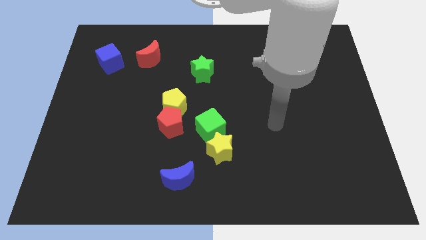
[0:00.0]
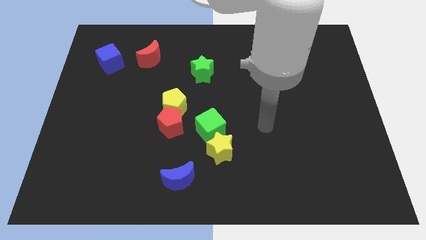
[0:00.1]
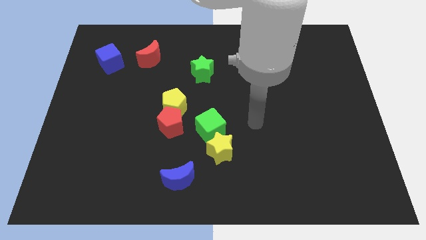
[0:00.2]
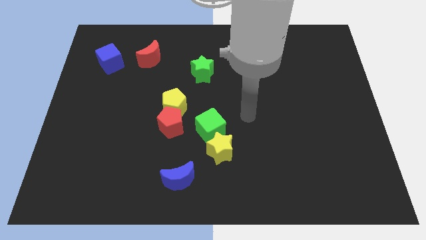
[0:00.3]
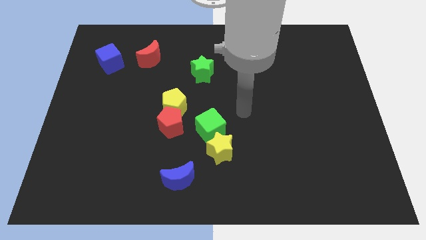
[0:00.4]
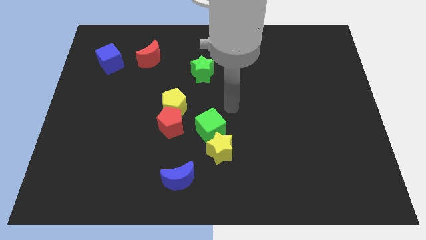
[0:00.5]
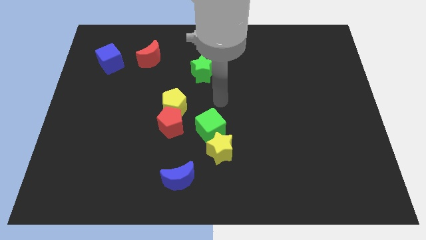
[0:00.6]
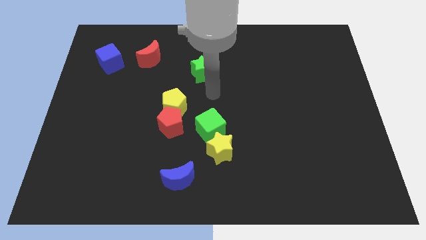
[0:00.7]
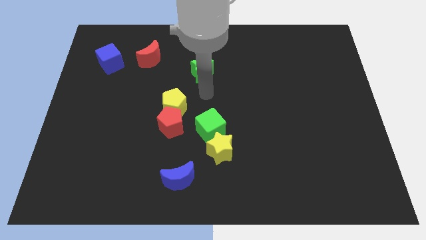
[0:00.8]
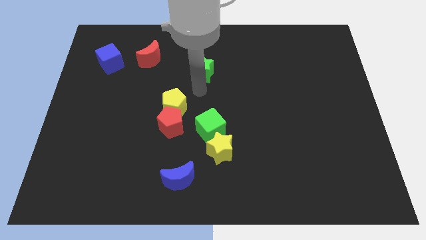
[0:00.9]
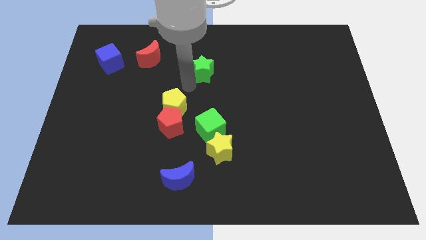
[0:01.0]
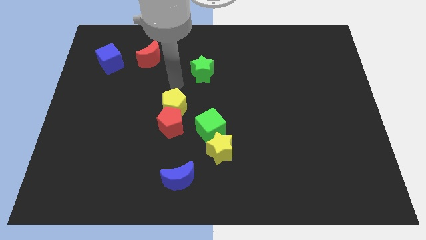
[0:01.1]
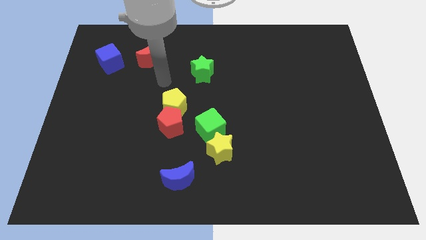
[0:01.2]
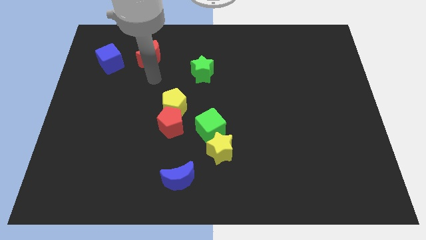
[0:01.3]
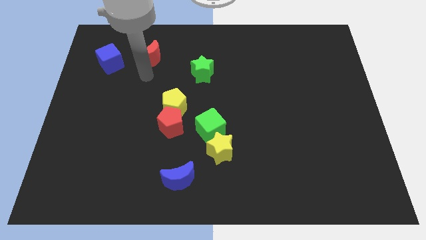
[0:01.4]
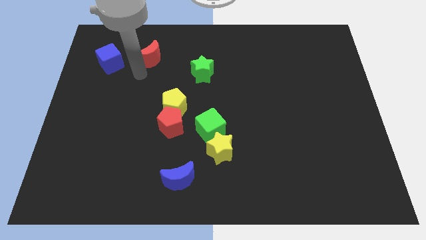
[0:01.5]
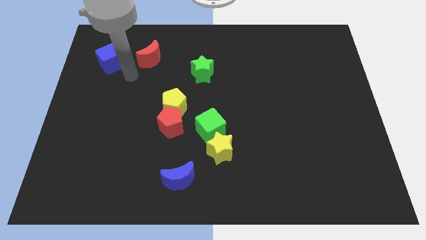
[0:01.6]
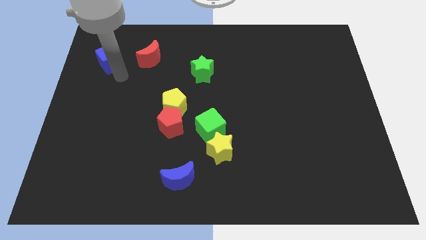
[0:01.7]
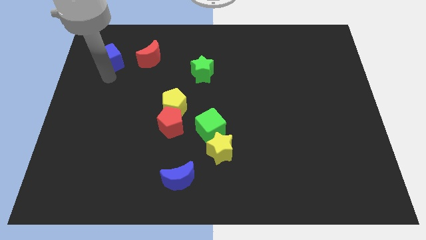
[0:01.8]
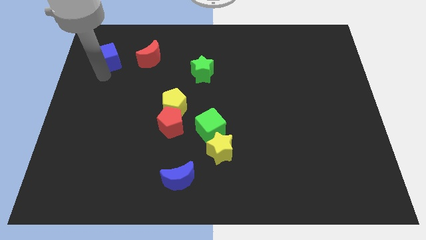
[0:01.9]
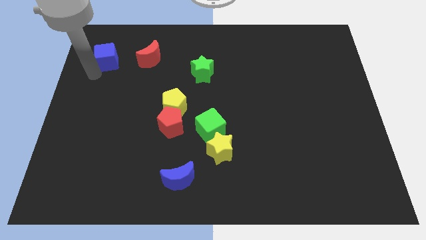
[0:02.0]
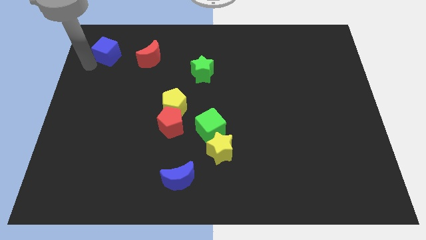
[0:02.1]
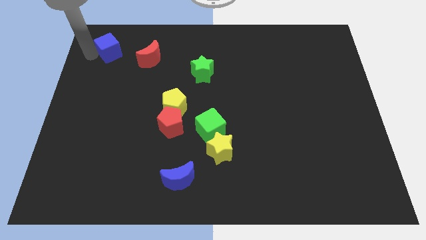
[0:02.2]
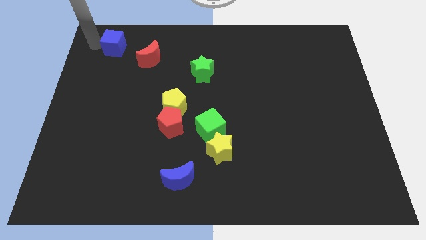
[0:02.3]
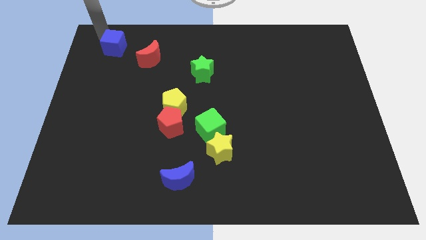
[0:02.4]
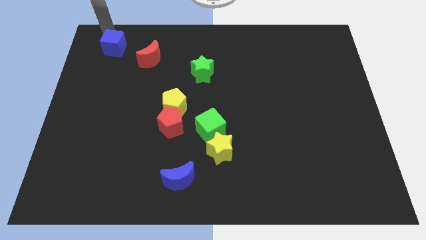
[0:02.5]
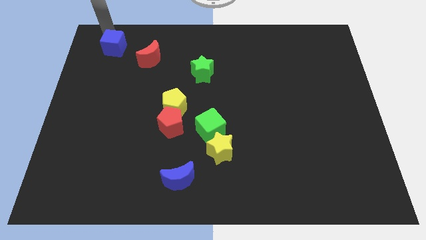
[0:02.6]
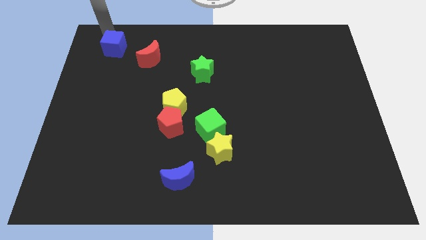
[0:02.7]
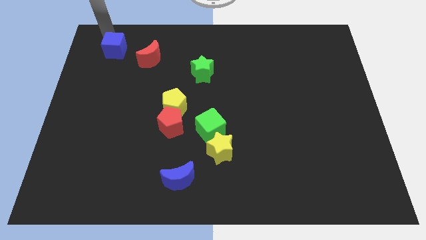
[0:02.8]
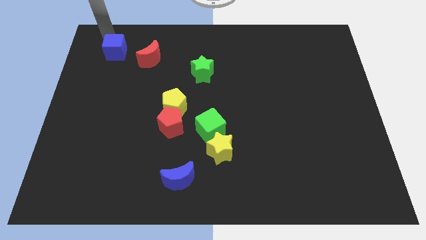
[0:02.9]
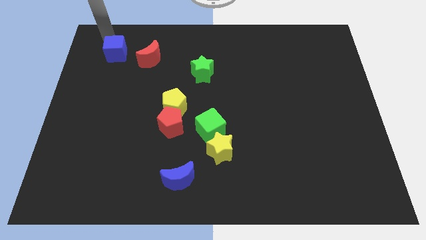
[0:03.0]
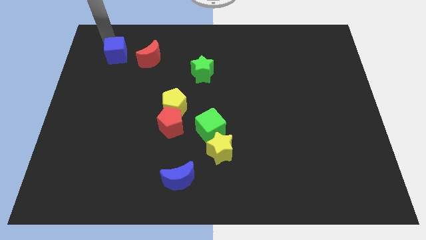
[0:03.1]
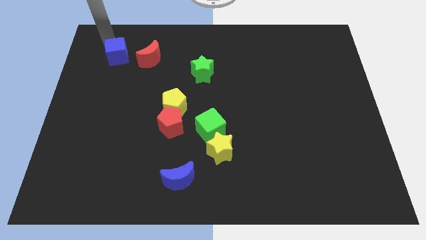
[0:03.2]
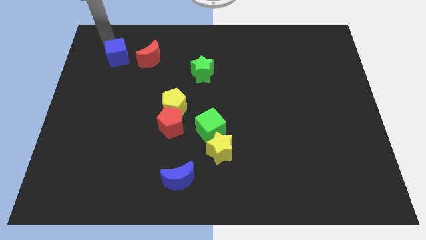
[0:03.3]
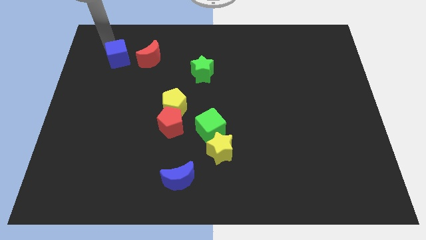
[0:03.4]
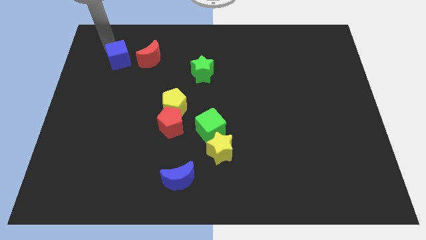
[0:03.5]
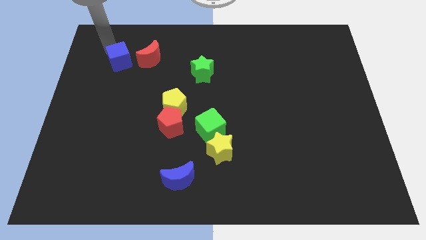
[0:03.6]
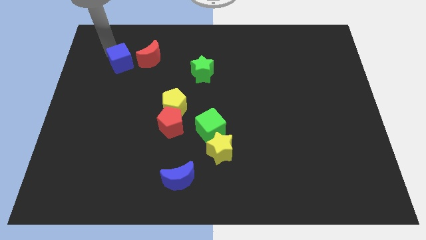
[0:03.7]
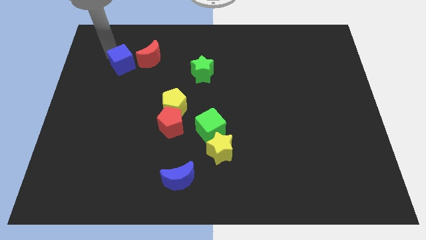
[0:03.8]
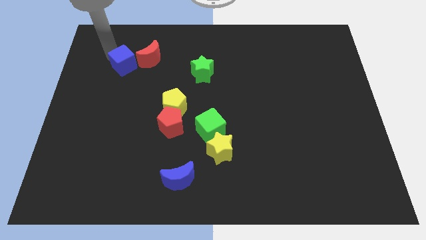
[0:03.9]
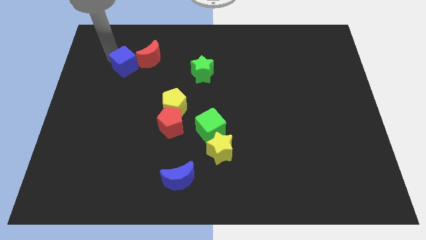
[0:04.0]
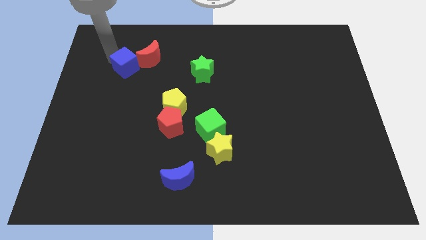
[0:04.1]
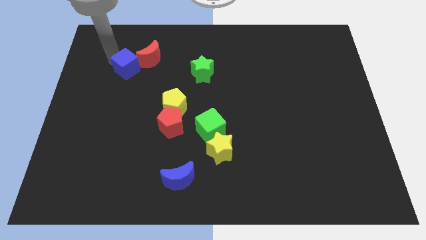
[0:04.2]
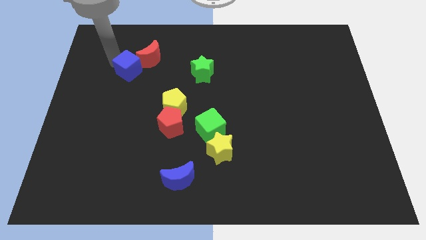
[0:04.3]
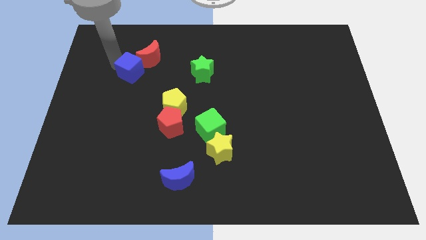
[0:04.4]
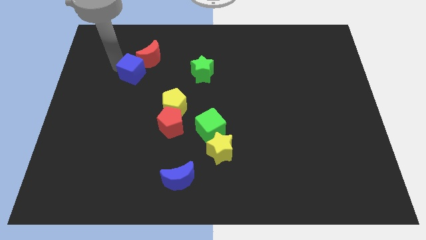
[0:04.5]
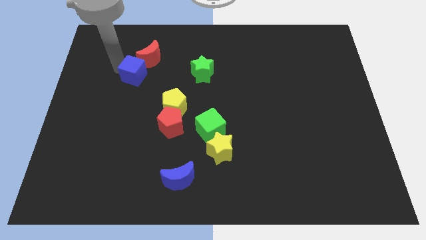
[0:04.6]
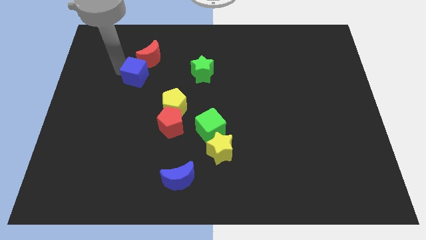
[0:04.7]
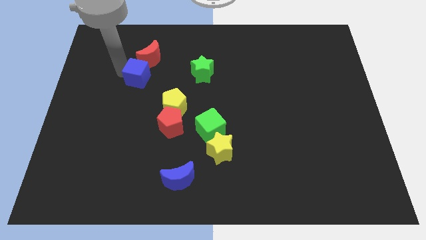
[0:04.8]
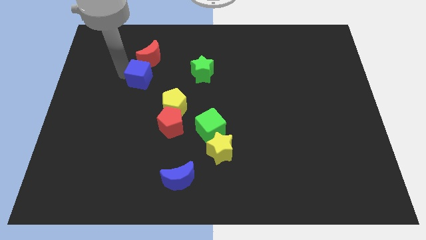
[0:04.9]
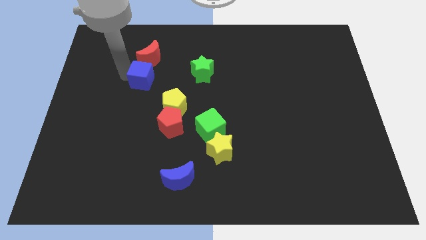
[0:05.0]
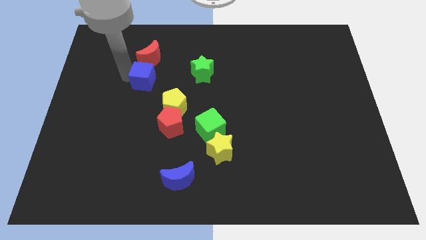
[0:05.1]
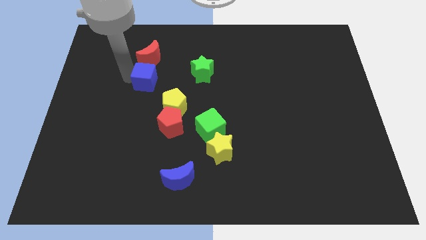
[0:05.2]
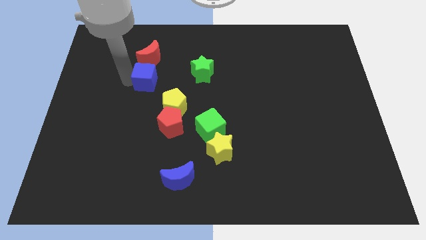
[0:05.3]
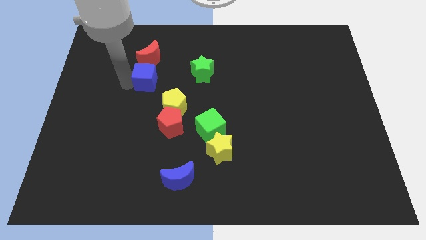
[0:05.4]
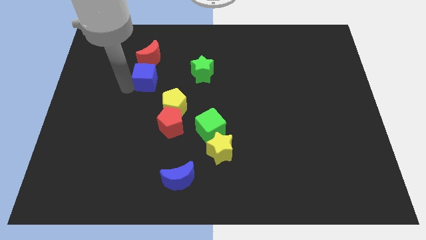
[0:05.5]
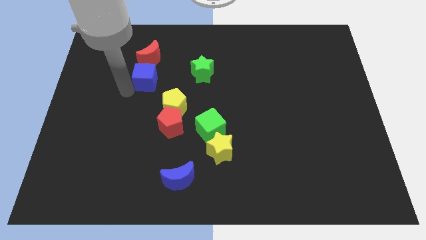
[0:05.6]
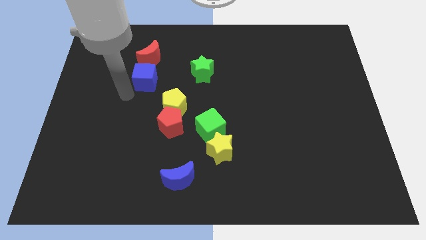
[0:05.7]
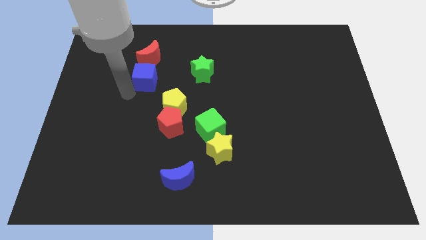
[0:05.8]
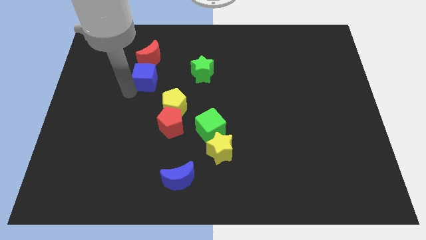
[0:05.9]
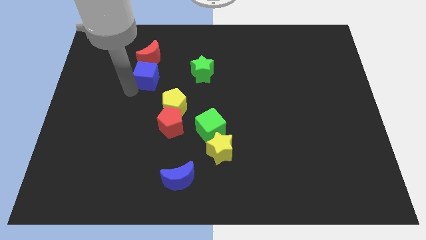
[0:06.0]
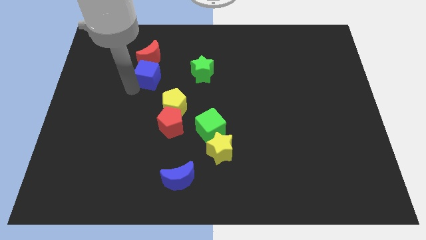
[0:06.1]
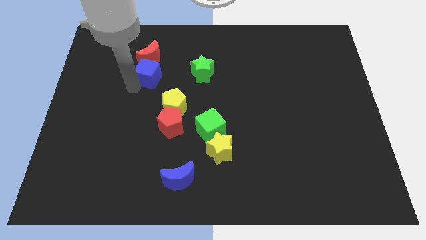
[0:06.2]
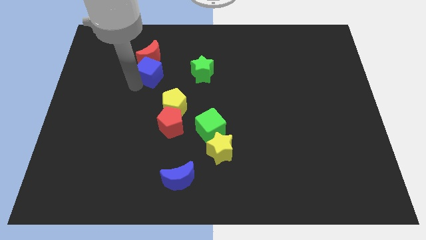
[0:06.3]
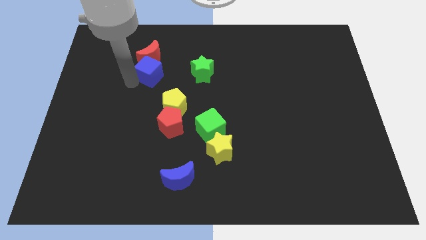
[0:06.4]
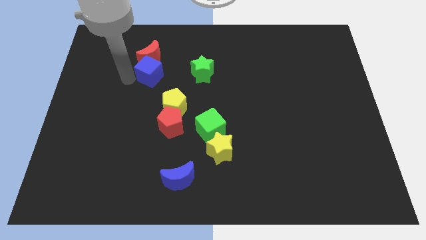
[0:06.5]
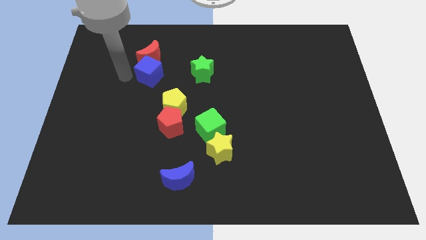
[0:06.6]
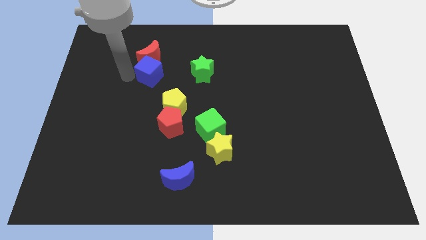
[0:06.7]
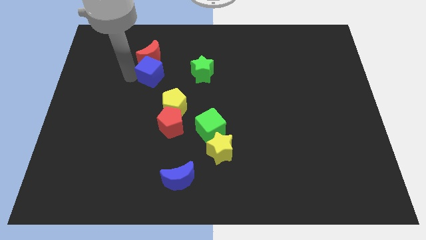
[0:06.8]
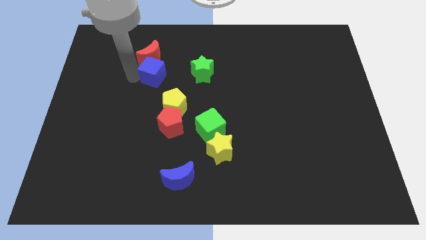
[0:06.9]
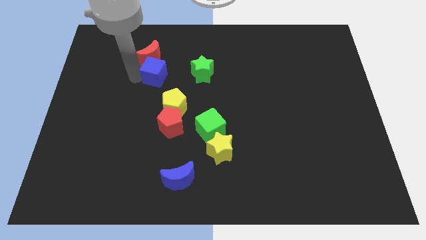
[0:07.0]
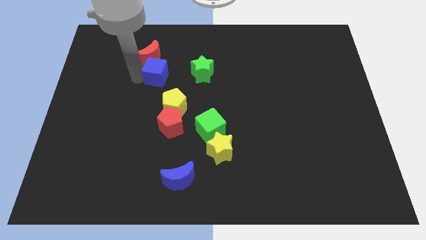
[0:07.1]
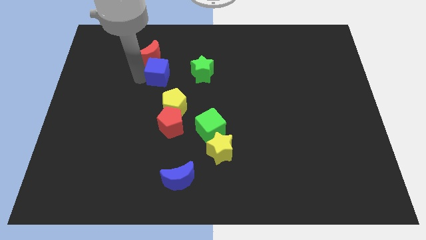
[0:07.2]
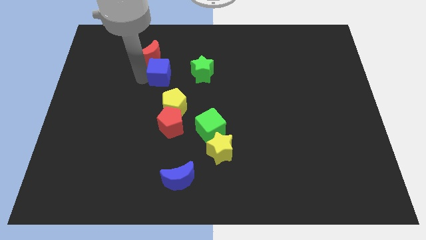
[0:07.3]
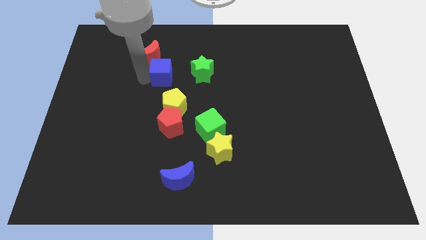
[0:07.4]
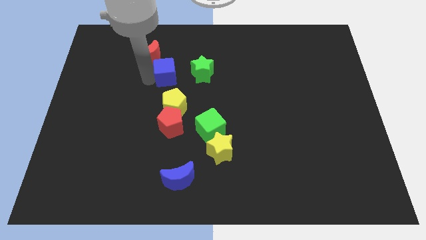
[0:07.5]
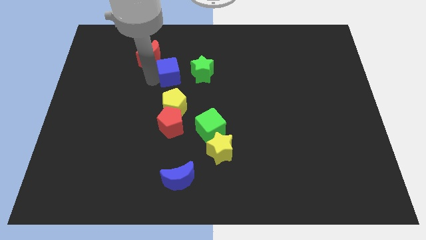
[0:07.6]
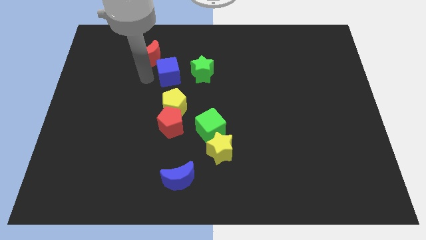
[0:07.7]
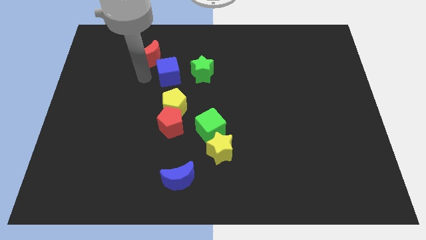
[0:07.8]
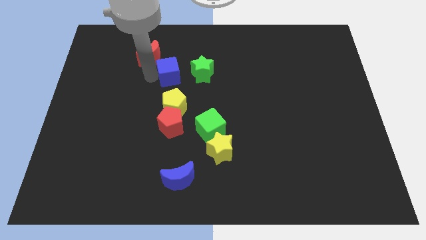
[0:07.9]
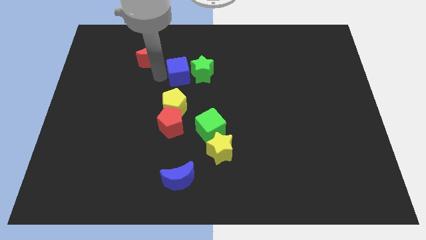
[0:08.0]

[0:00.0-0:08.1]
slide the blue cube towards the green star
